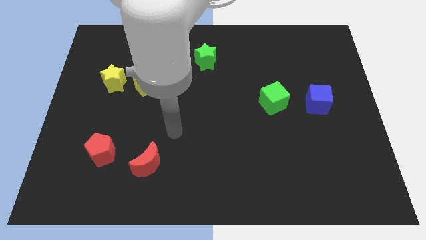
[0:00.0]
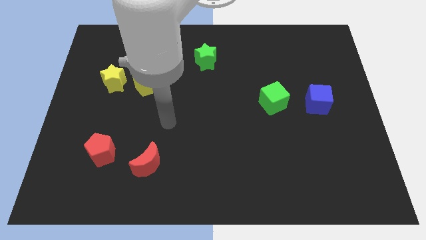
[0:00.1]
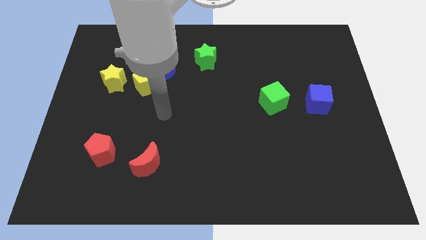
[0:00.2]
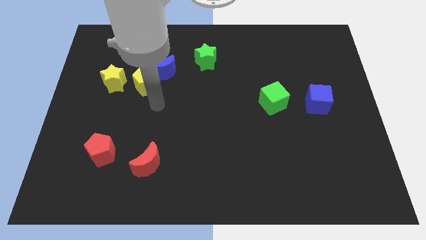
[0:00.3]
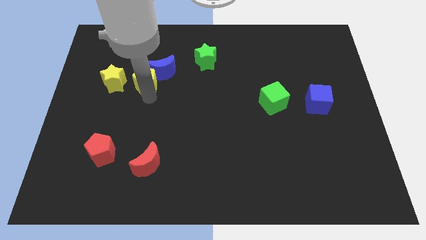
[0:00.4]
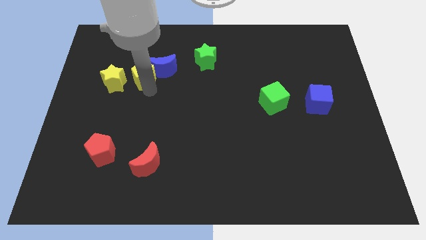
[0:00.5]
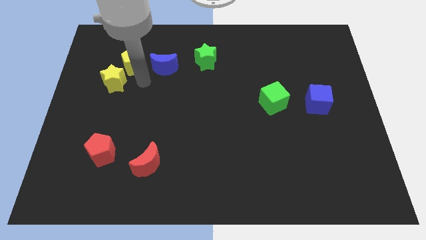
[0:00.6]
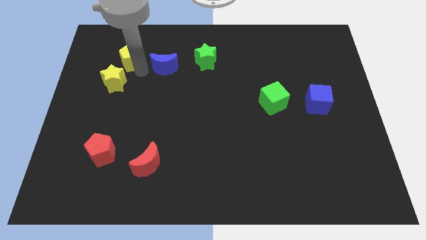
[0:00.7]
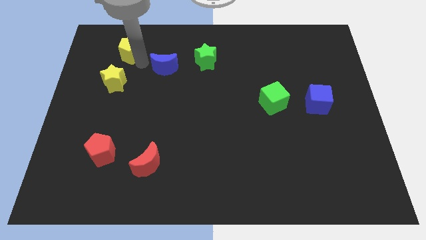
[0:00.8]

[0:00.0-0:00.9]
separate the blue moon from the yellow pentagon

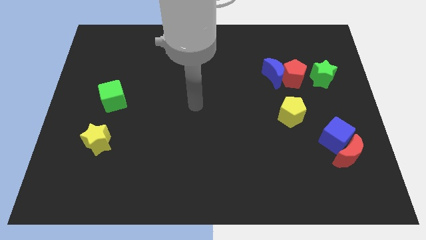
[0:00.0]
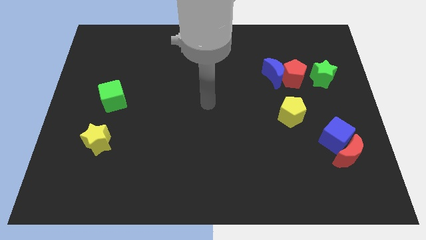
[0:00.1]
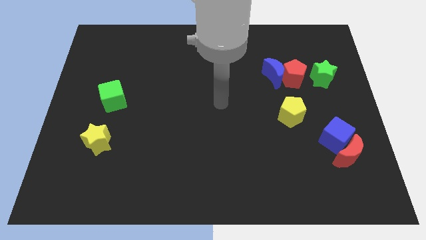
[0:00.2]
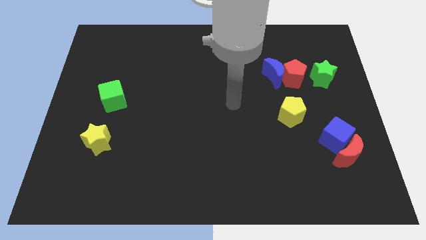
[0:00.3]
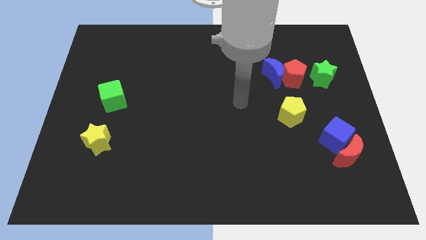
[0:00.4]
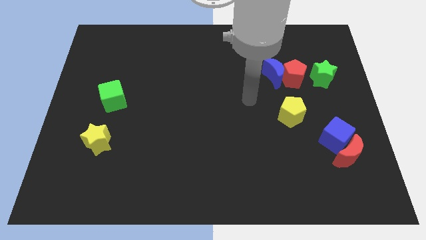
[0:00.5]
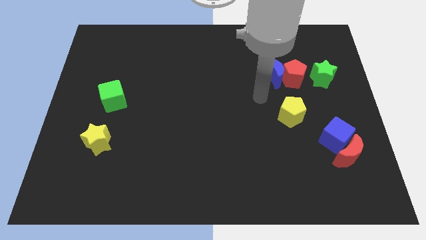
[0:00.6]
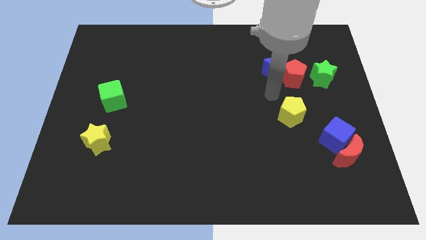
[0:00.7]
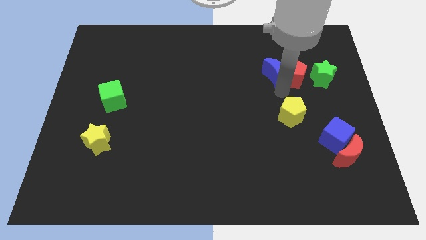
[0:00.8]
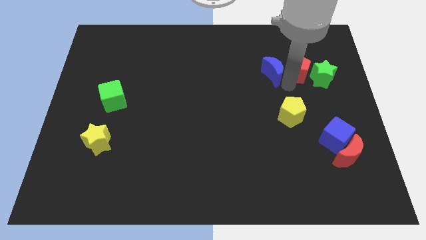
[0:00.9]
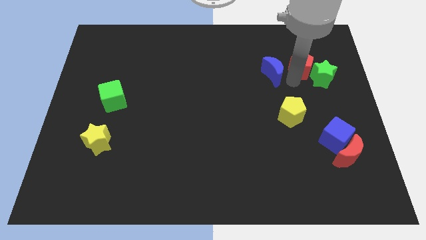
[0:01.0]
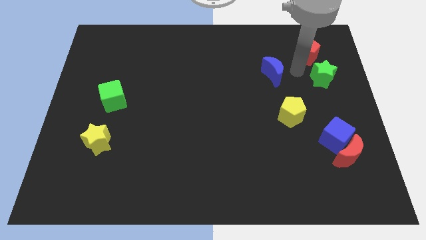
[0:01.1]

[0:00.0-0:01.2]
move the blue moon away from the red pentagon

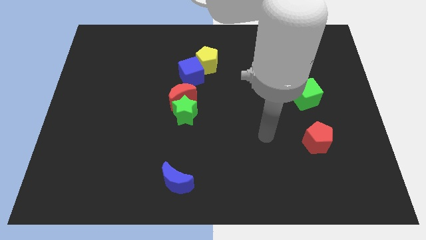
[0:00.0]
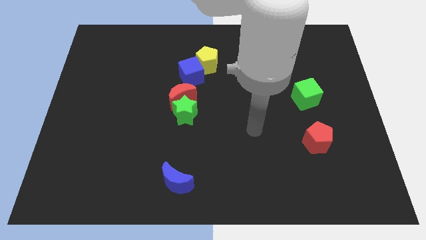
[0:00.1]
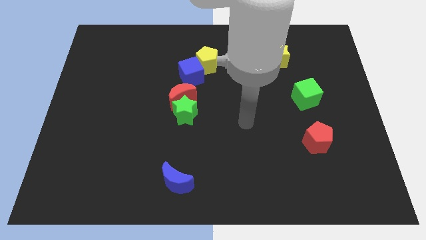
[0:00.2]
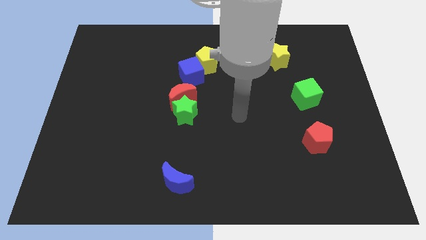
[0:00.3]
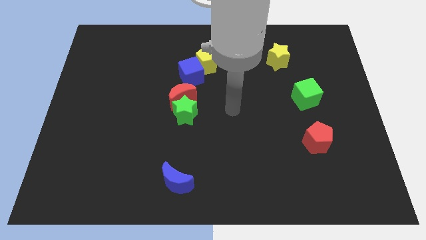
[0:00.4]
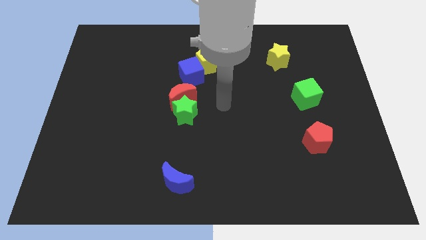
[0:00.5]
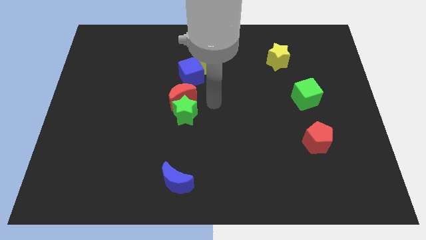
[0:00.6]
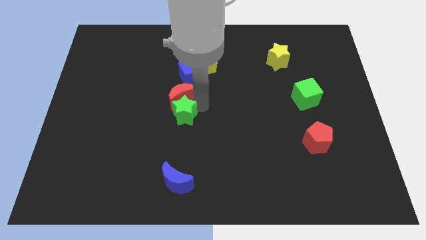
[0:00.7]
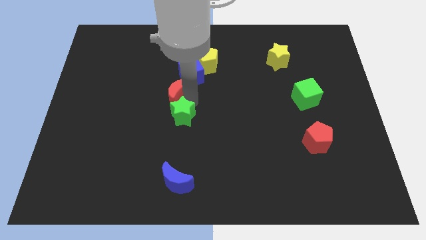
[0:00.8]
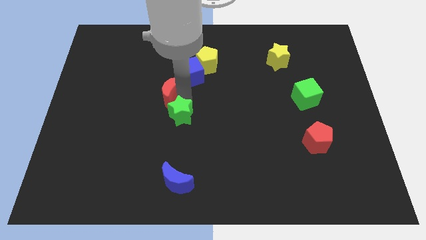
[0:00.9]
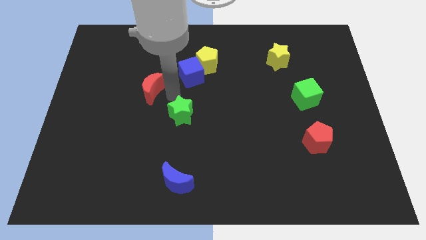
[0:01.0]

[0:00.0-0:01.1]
move the green star away from the red moon

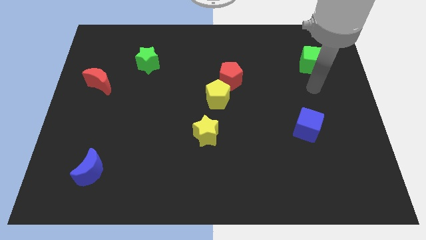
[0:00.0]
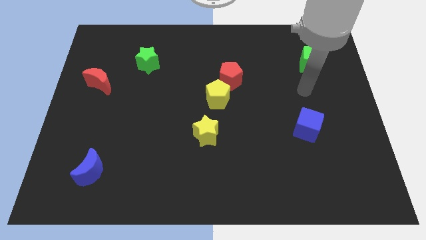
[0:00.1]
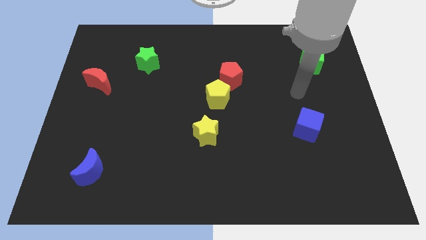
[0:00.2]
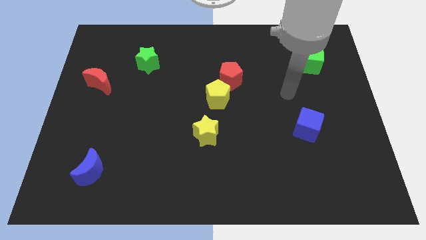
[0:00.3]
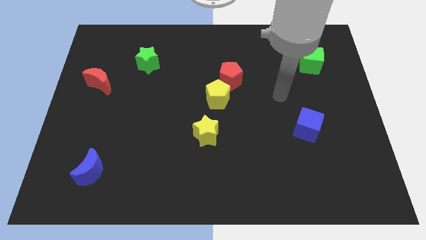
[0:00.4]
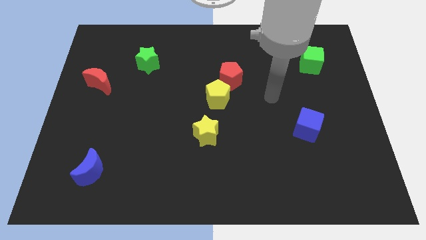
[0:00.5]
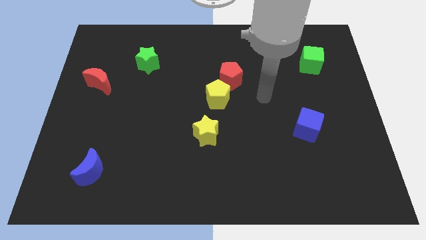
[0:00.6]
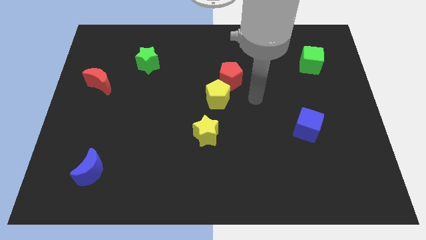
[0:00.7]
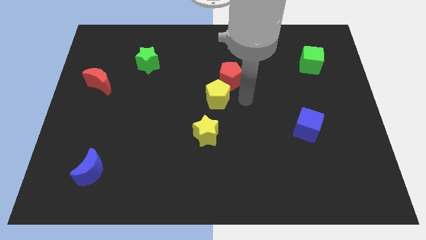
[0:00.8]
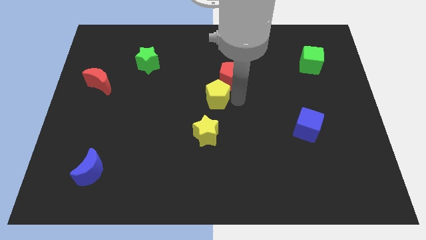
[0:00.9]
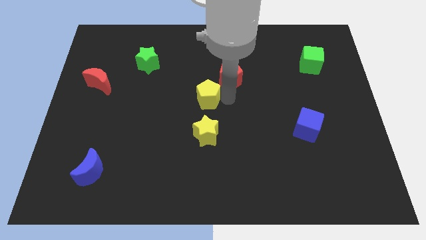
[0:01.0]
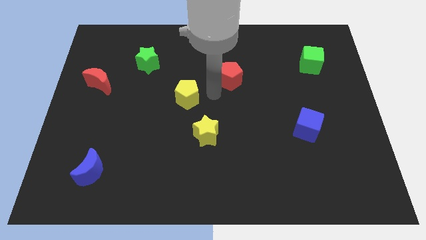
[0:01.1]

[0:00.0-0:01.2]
pull the red pentagon apart from the yellow pentagon

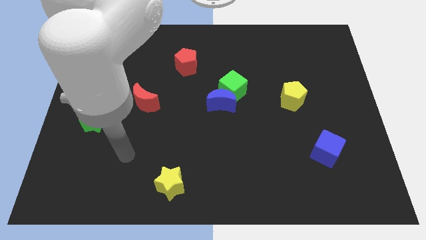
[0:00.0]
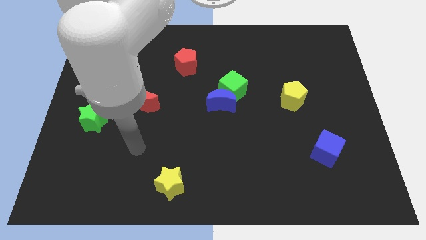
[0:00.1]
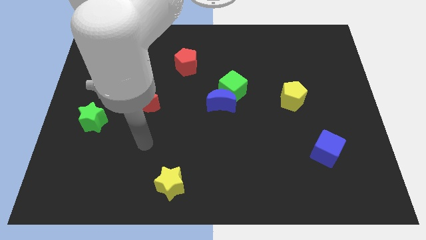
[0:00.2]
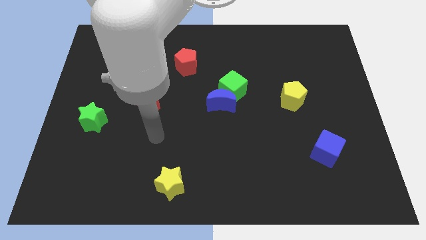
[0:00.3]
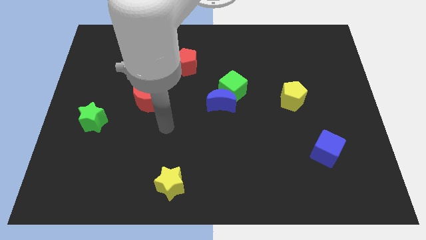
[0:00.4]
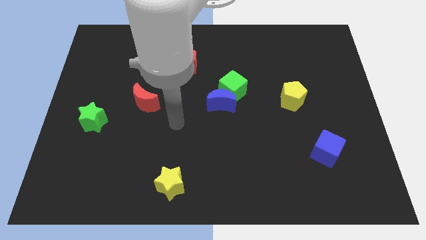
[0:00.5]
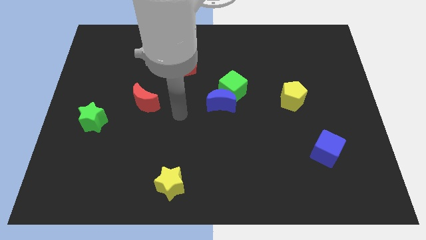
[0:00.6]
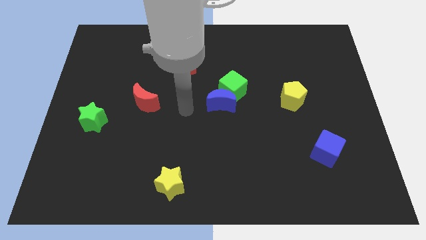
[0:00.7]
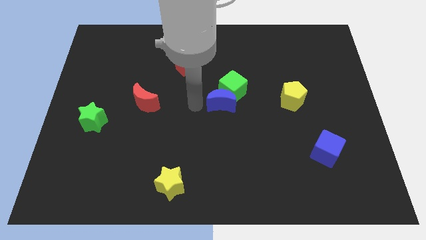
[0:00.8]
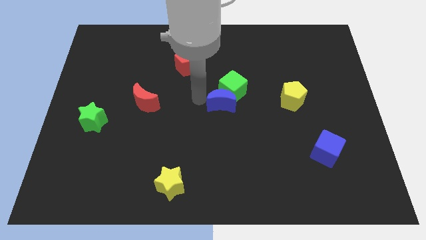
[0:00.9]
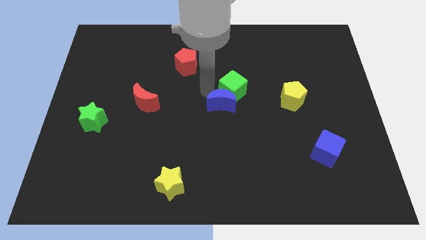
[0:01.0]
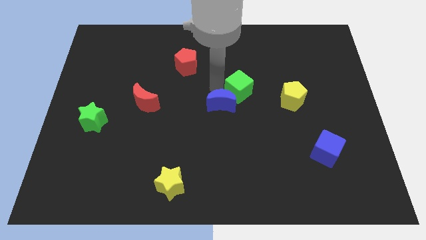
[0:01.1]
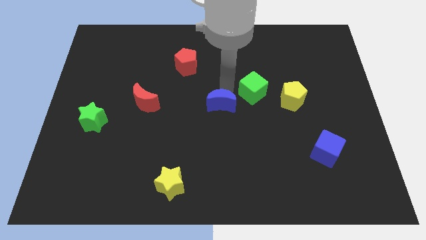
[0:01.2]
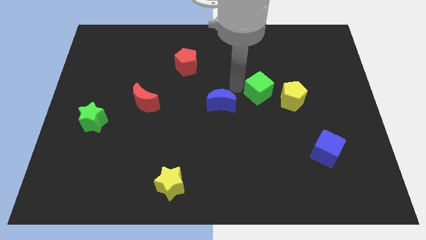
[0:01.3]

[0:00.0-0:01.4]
move the blue moon away from the green cube

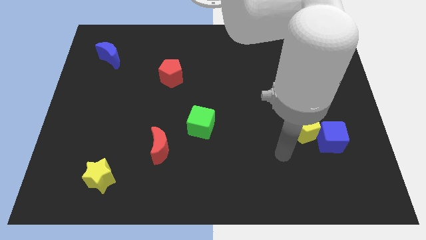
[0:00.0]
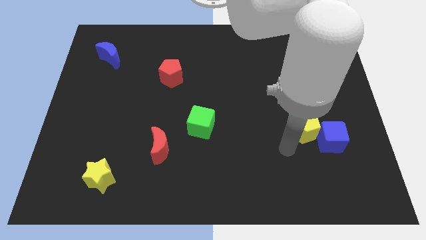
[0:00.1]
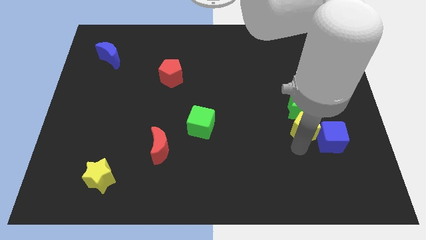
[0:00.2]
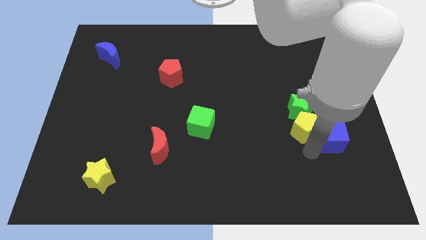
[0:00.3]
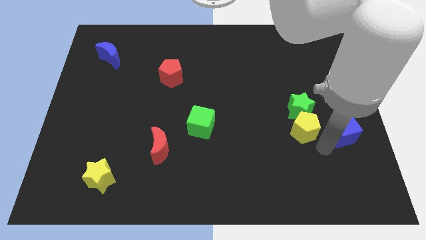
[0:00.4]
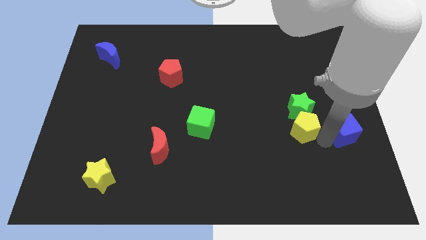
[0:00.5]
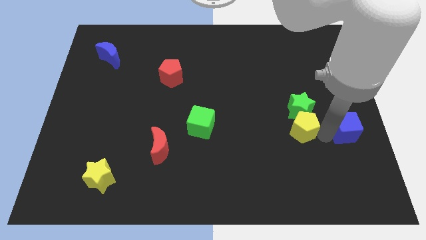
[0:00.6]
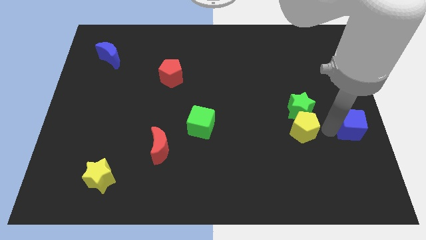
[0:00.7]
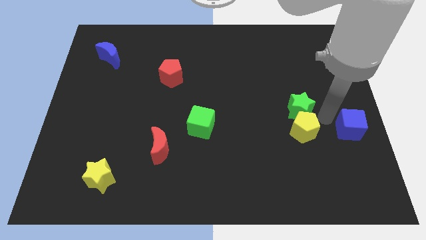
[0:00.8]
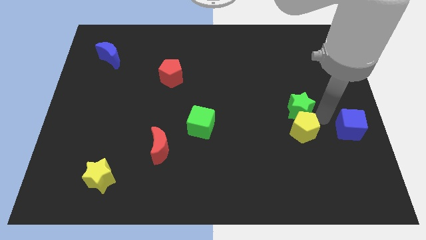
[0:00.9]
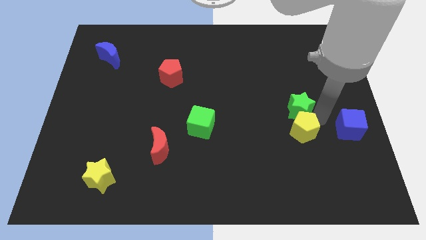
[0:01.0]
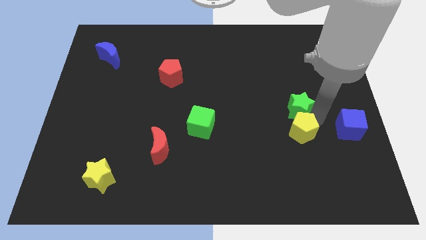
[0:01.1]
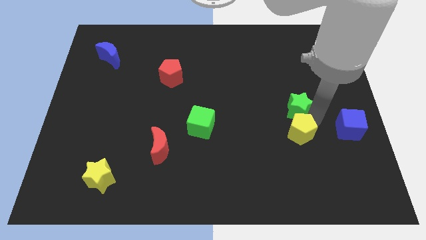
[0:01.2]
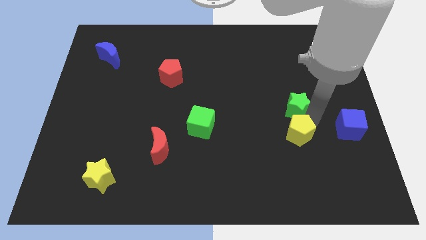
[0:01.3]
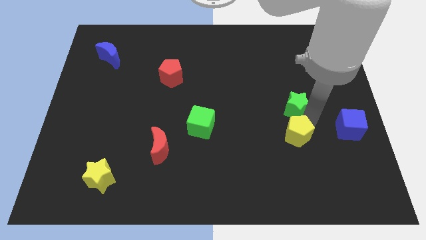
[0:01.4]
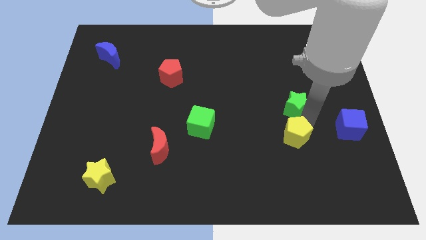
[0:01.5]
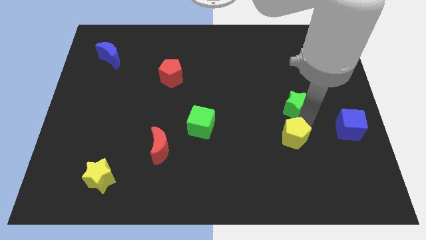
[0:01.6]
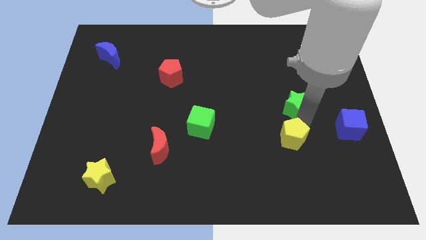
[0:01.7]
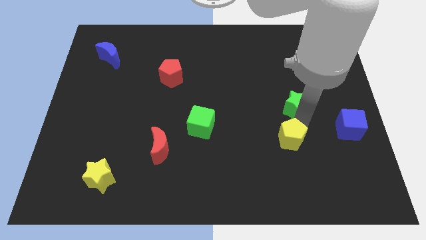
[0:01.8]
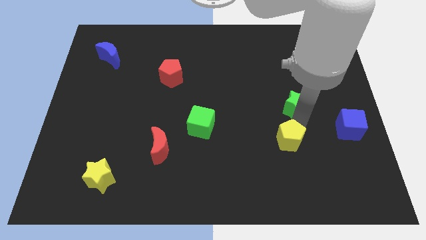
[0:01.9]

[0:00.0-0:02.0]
move the yellow pentagon away from the green star and blue cube

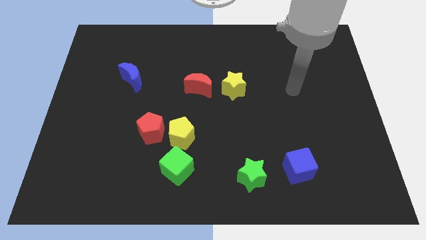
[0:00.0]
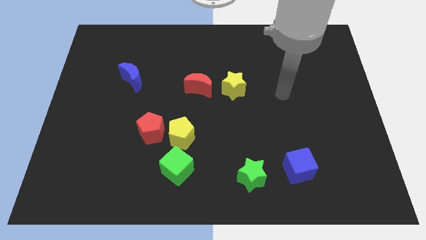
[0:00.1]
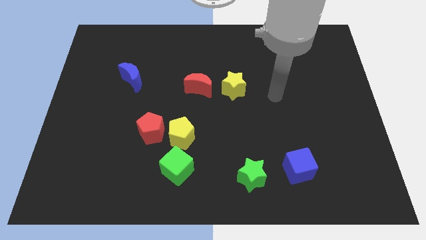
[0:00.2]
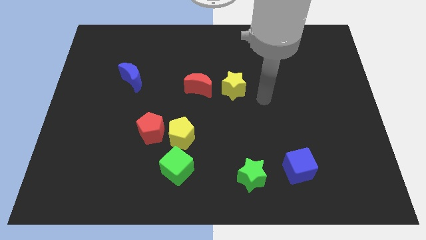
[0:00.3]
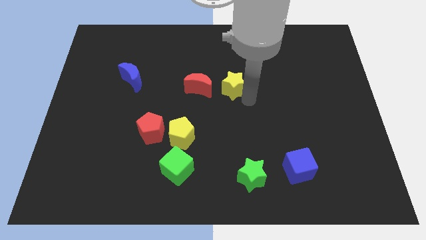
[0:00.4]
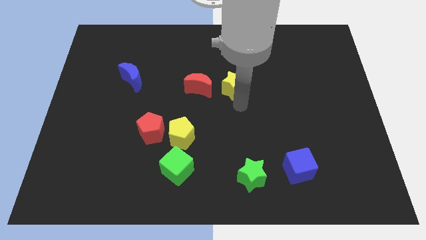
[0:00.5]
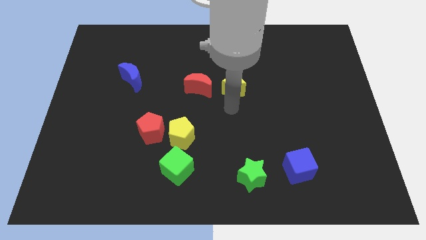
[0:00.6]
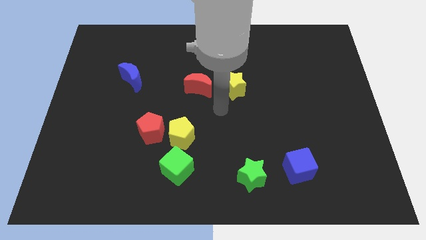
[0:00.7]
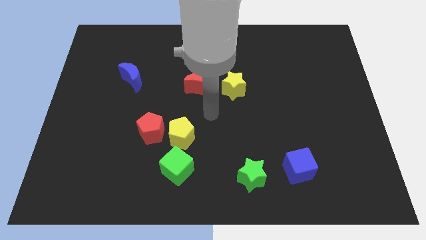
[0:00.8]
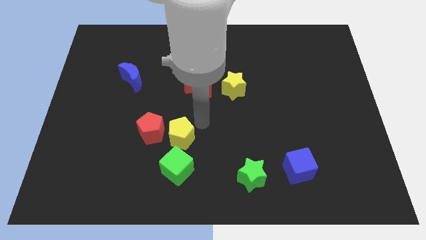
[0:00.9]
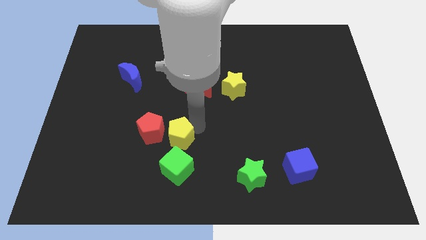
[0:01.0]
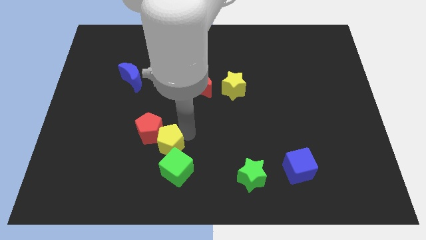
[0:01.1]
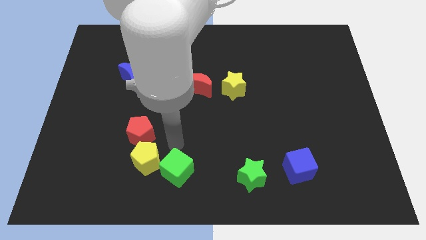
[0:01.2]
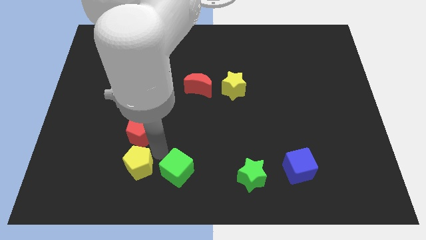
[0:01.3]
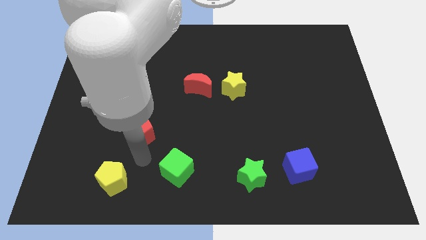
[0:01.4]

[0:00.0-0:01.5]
move the red pentagon away from the yellow pentagon
